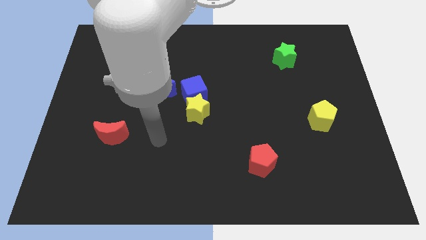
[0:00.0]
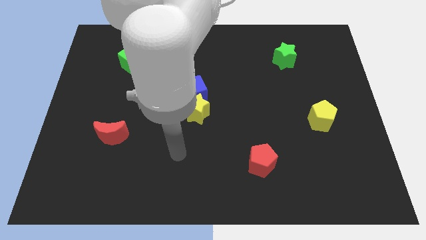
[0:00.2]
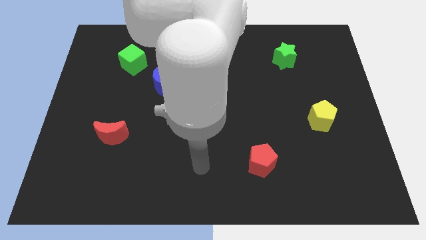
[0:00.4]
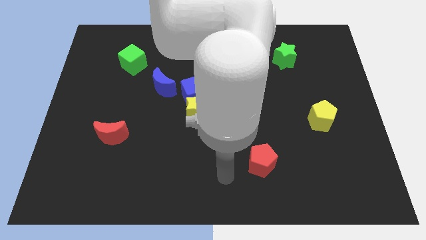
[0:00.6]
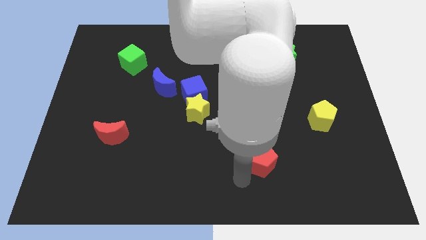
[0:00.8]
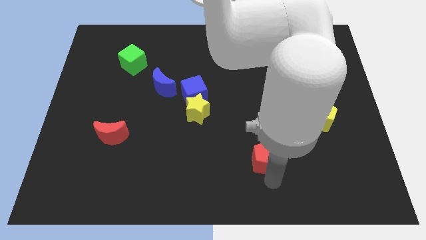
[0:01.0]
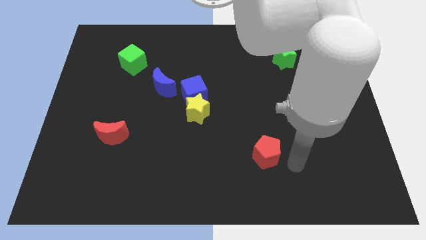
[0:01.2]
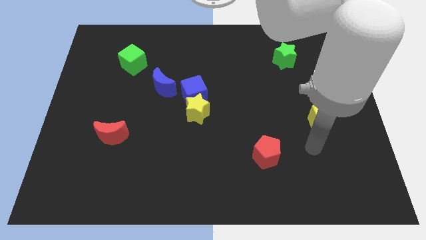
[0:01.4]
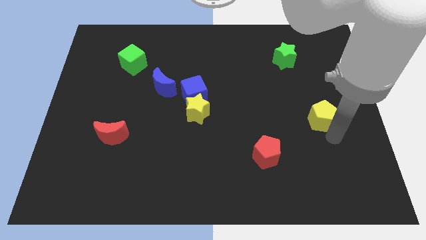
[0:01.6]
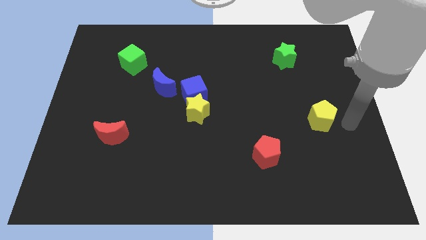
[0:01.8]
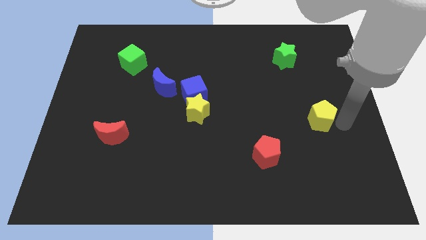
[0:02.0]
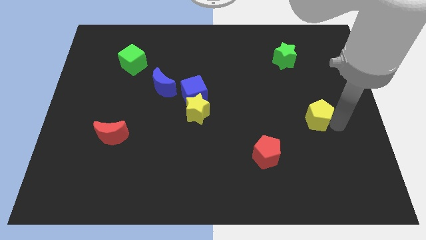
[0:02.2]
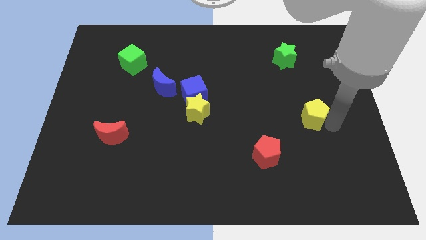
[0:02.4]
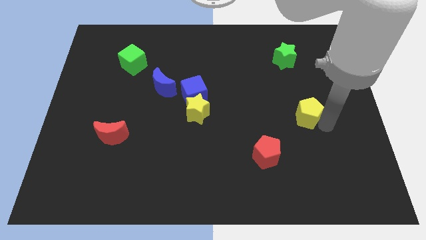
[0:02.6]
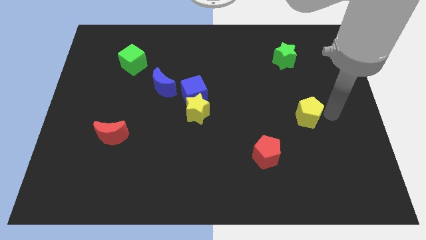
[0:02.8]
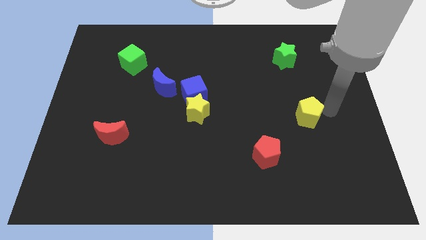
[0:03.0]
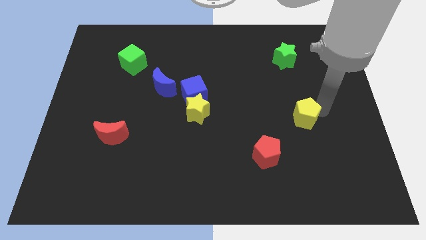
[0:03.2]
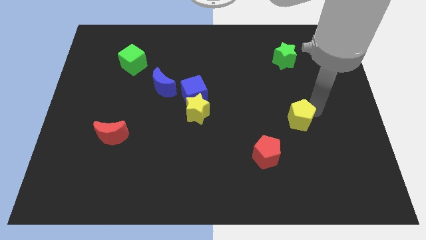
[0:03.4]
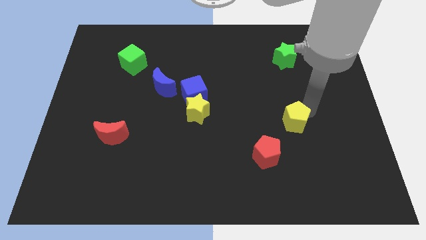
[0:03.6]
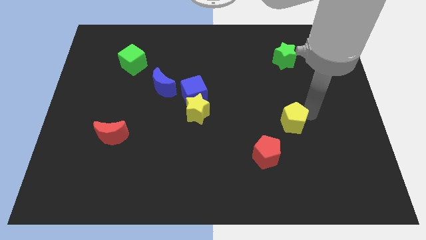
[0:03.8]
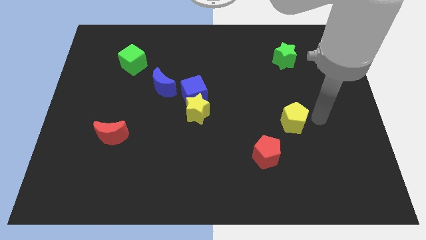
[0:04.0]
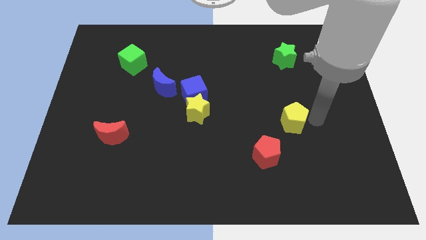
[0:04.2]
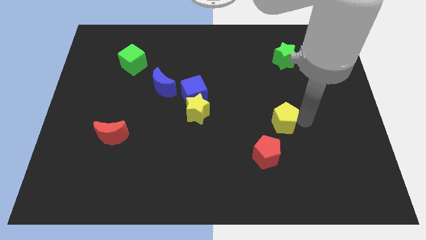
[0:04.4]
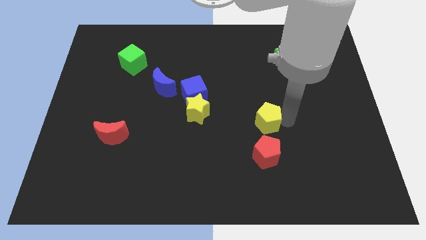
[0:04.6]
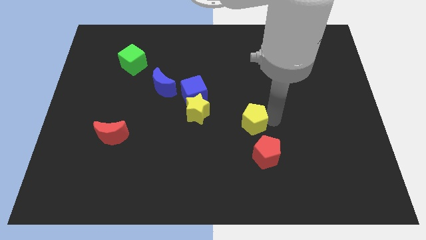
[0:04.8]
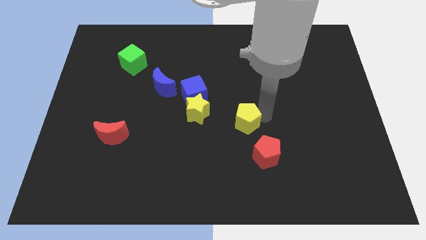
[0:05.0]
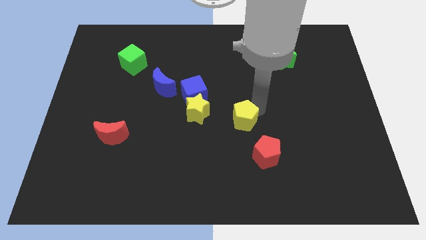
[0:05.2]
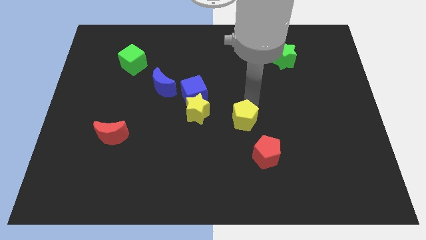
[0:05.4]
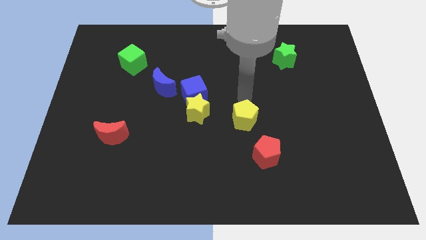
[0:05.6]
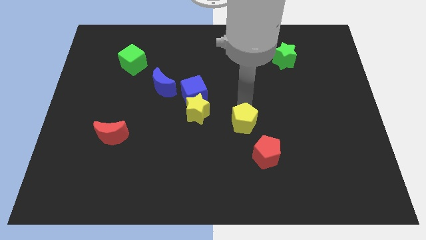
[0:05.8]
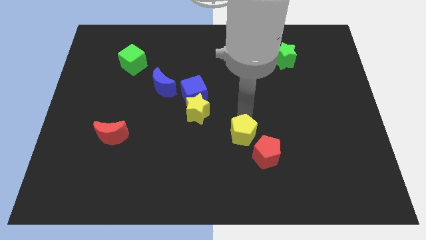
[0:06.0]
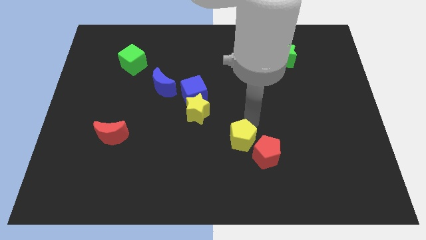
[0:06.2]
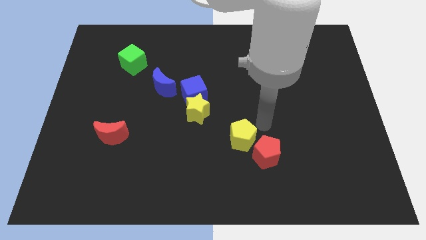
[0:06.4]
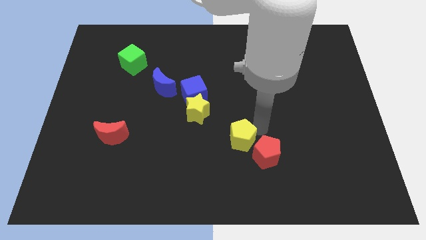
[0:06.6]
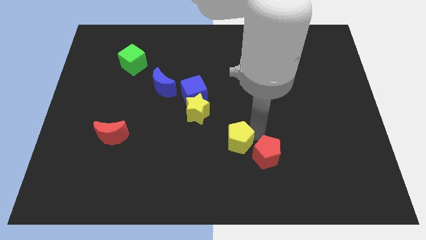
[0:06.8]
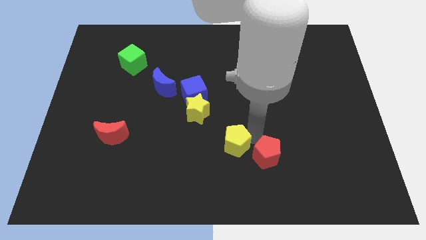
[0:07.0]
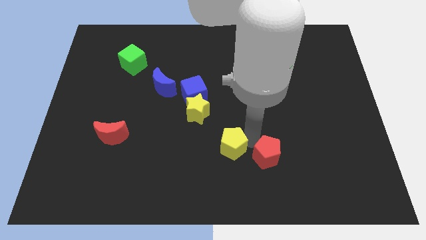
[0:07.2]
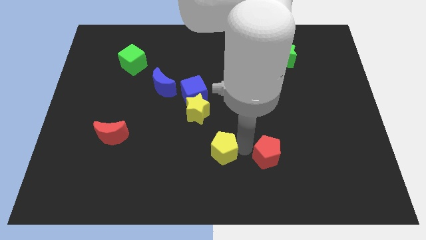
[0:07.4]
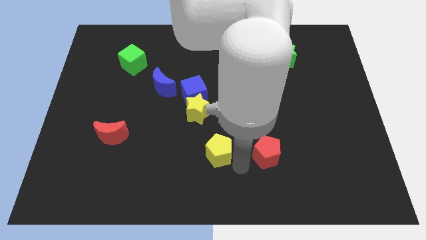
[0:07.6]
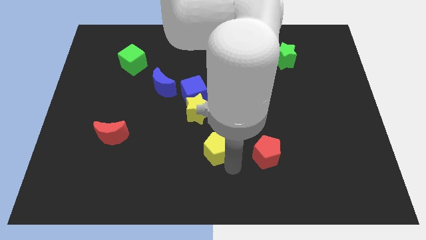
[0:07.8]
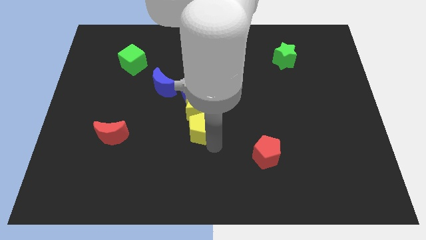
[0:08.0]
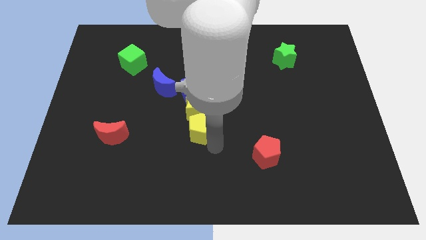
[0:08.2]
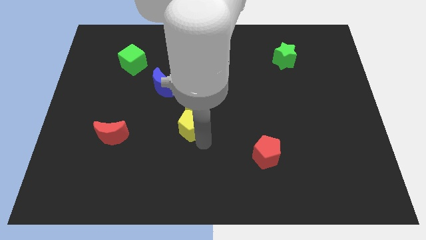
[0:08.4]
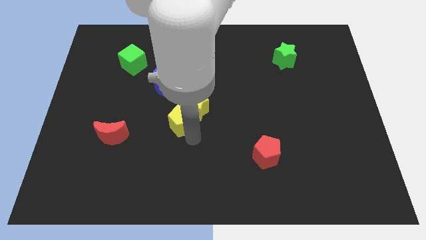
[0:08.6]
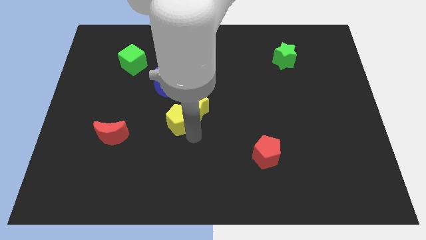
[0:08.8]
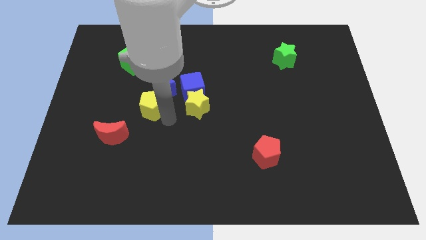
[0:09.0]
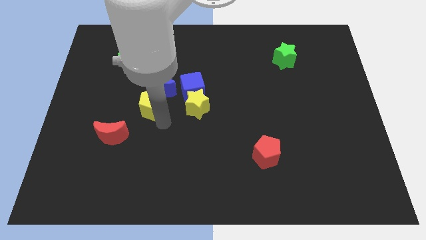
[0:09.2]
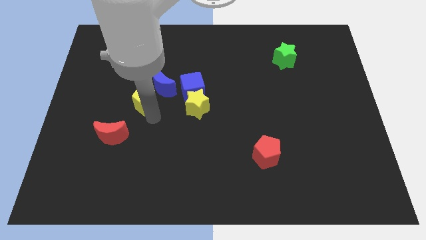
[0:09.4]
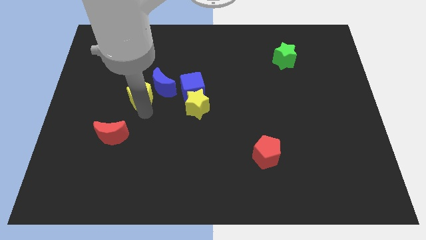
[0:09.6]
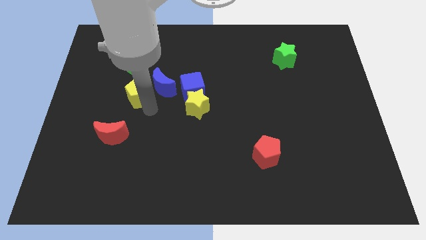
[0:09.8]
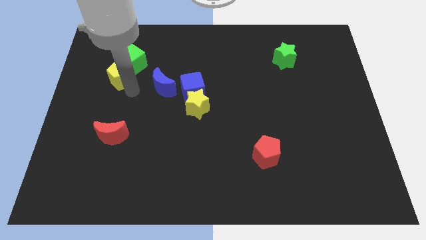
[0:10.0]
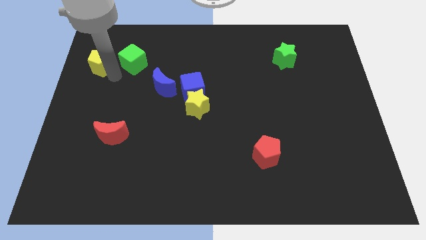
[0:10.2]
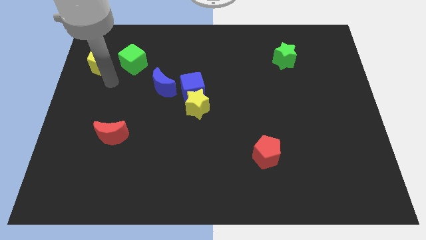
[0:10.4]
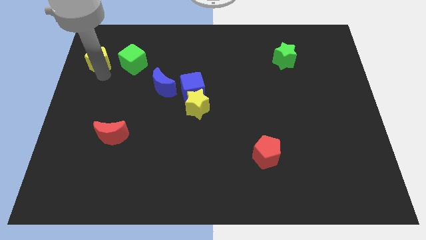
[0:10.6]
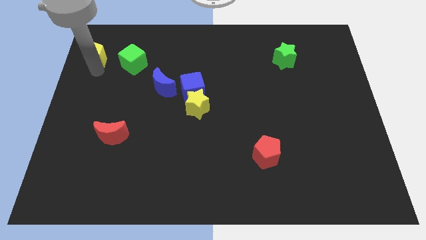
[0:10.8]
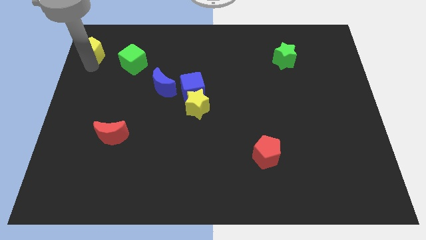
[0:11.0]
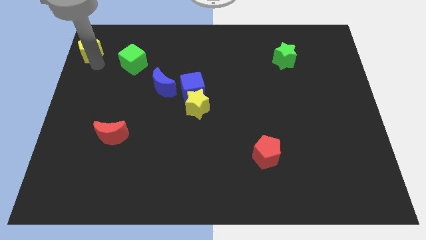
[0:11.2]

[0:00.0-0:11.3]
move the yellow pentagon to the top left
